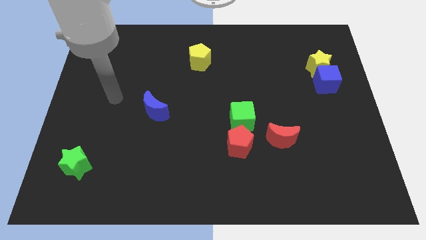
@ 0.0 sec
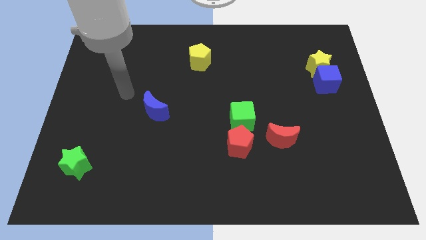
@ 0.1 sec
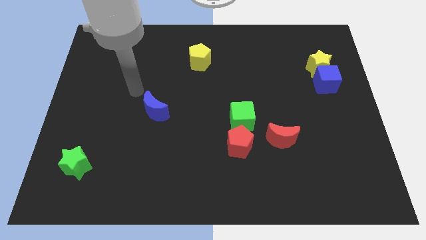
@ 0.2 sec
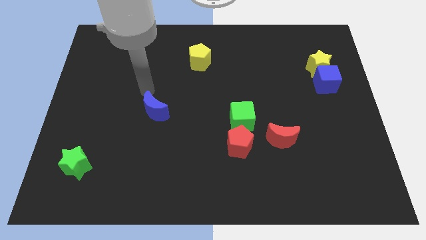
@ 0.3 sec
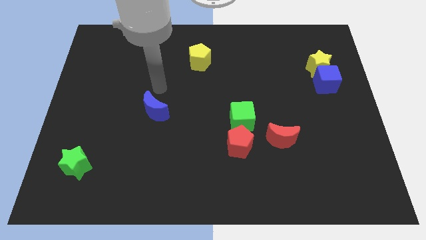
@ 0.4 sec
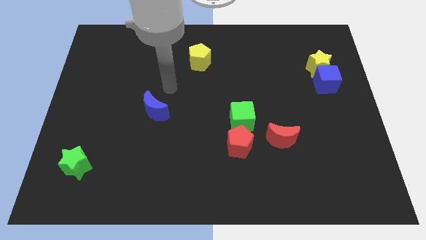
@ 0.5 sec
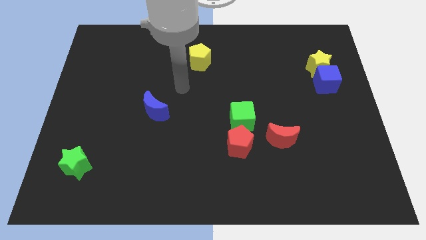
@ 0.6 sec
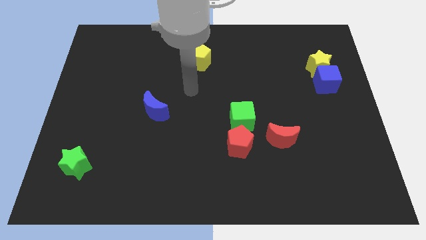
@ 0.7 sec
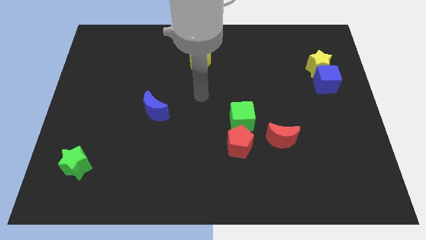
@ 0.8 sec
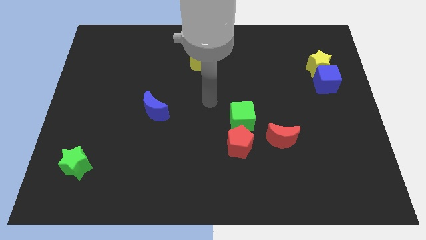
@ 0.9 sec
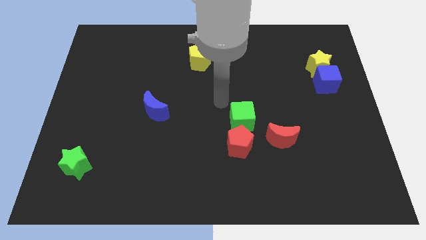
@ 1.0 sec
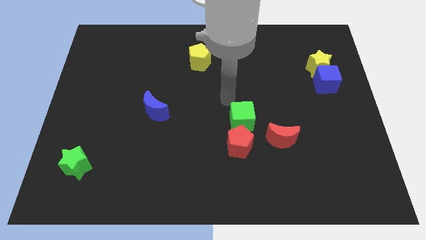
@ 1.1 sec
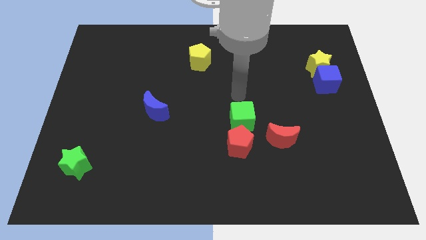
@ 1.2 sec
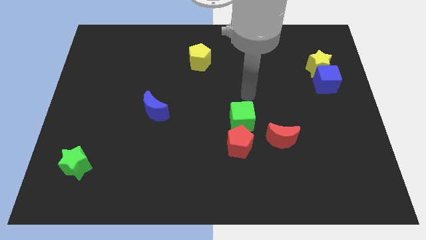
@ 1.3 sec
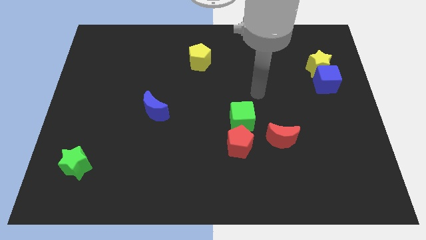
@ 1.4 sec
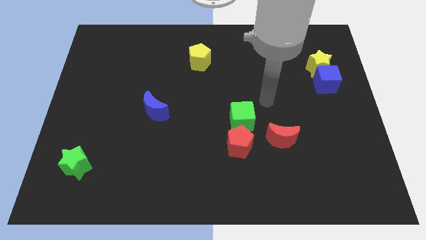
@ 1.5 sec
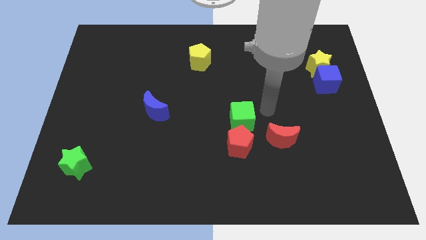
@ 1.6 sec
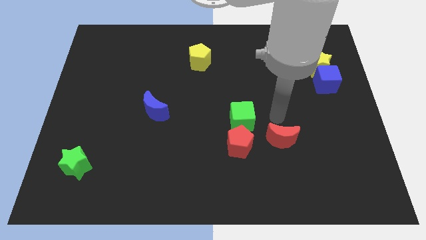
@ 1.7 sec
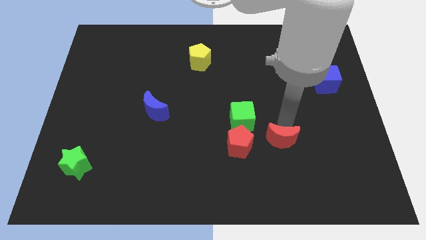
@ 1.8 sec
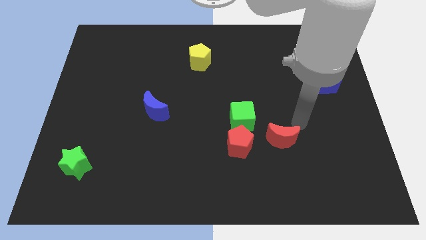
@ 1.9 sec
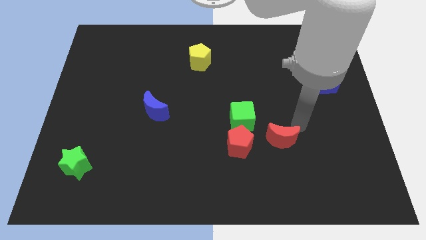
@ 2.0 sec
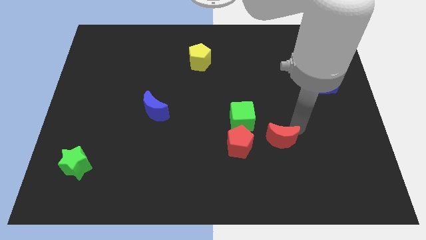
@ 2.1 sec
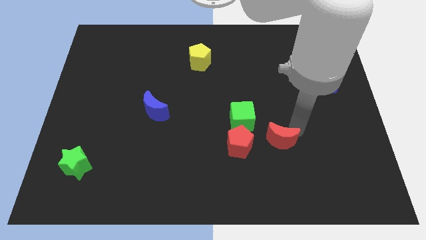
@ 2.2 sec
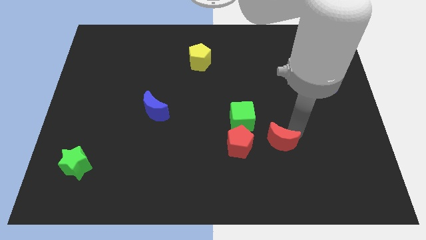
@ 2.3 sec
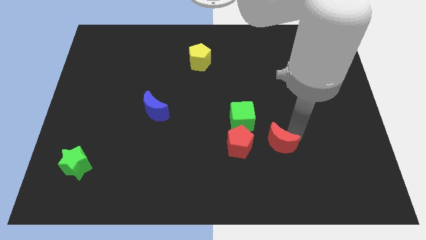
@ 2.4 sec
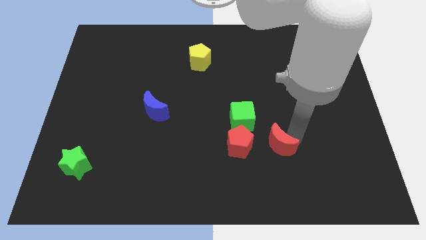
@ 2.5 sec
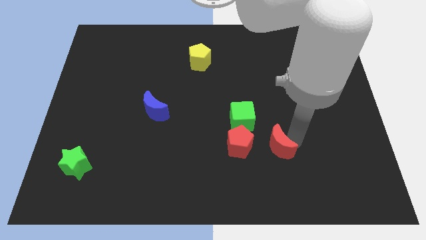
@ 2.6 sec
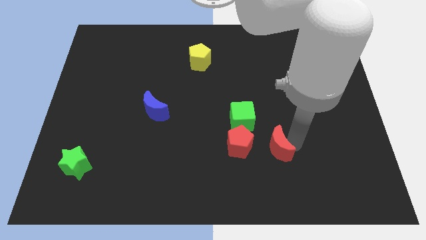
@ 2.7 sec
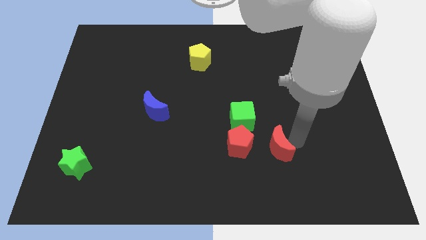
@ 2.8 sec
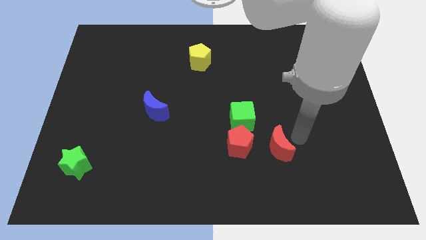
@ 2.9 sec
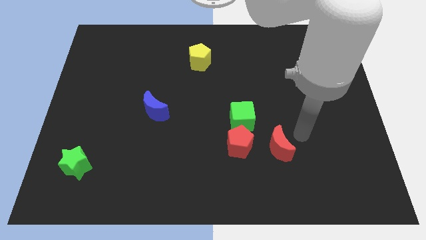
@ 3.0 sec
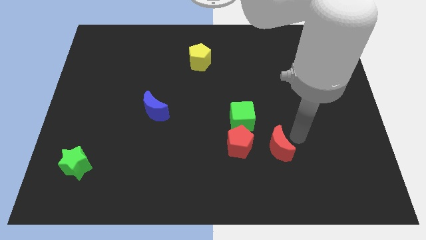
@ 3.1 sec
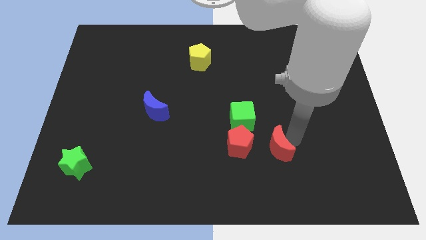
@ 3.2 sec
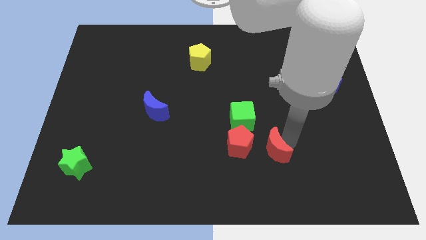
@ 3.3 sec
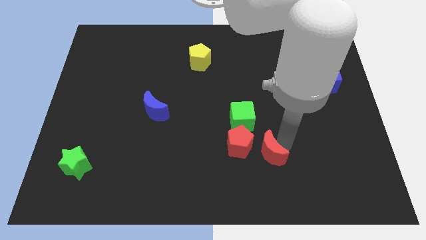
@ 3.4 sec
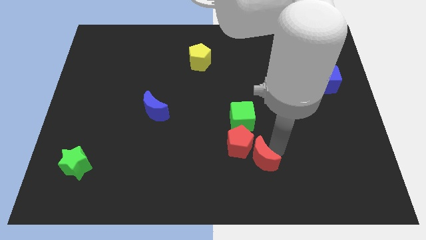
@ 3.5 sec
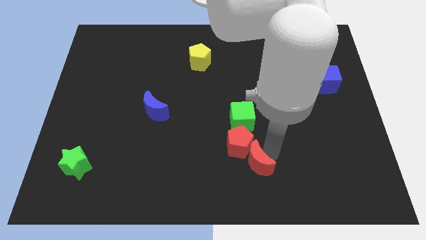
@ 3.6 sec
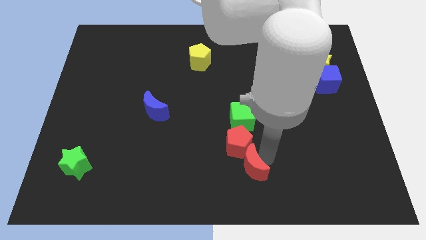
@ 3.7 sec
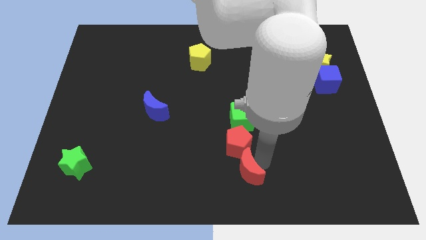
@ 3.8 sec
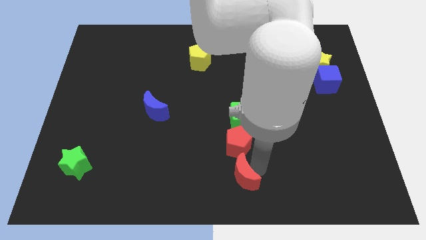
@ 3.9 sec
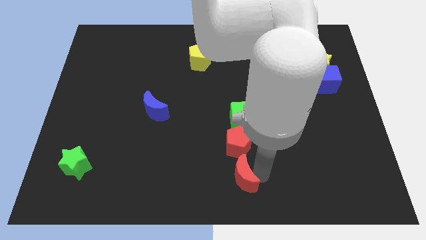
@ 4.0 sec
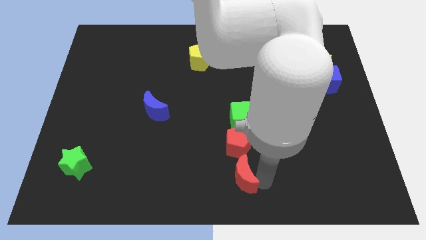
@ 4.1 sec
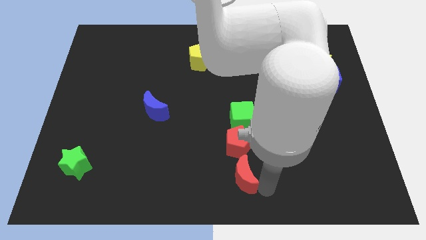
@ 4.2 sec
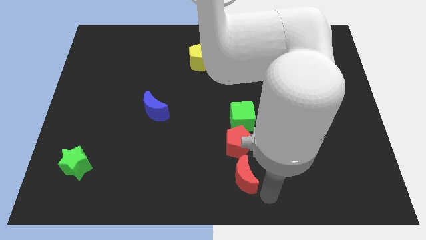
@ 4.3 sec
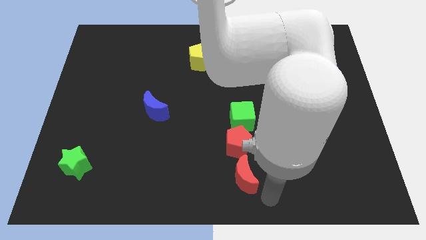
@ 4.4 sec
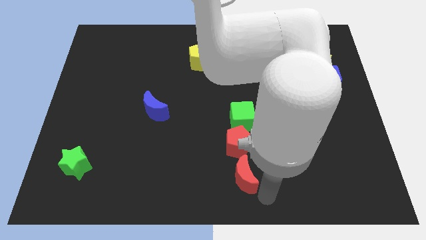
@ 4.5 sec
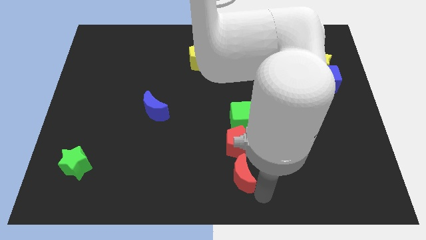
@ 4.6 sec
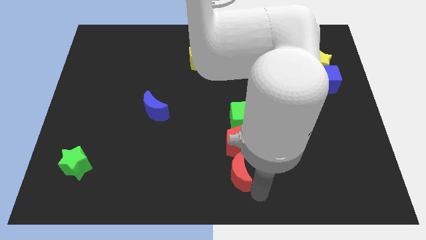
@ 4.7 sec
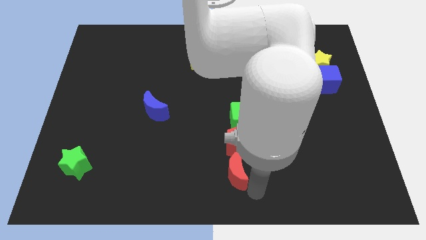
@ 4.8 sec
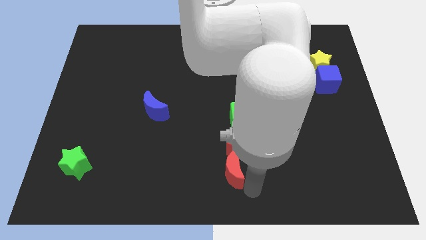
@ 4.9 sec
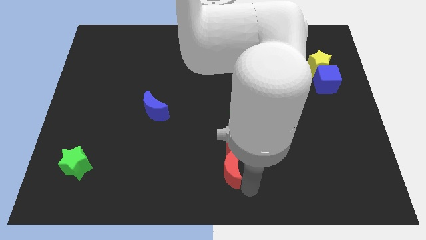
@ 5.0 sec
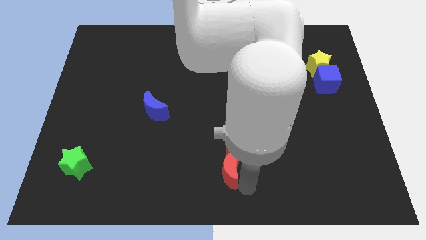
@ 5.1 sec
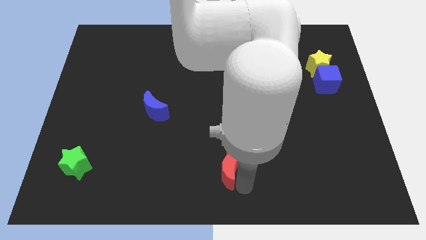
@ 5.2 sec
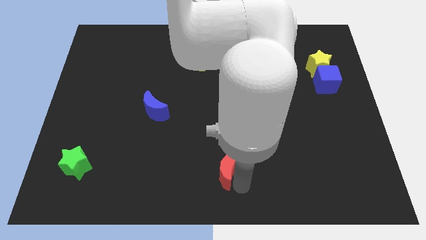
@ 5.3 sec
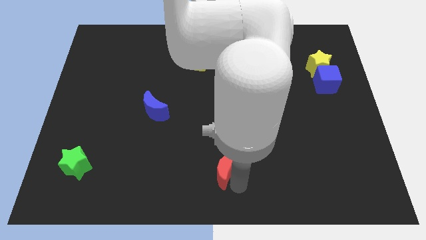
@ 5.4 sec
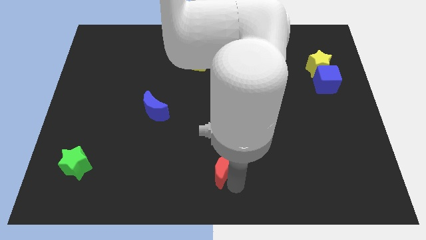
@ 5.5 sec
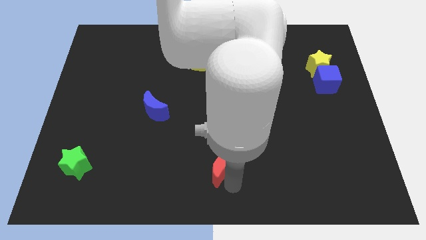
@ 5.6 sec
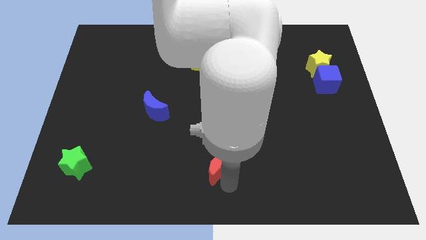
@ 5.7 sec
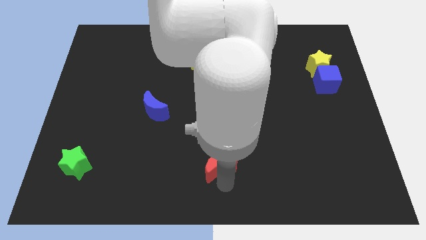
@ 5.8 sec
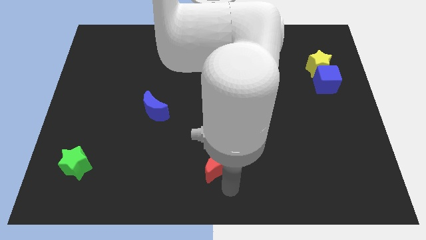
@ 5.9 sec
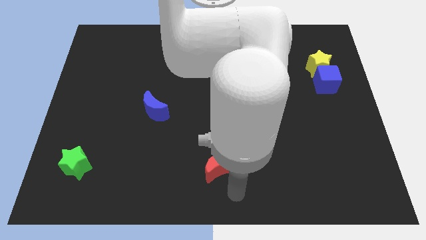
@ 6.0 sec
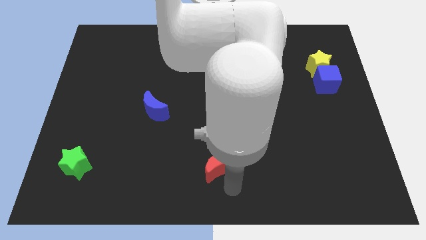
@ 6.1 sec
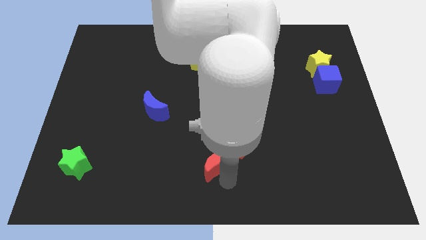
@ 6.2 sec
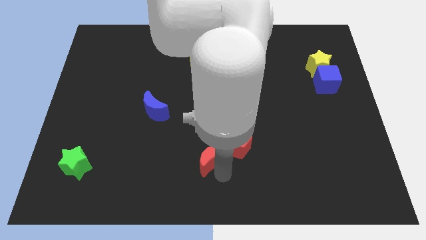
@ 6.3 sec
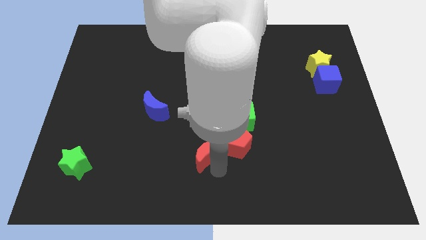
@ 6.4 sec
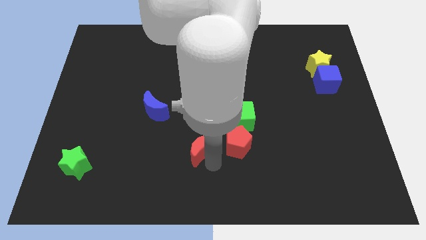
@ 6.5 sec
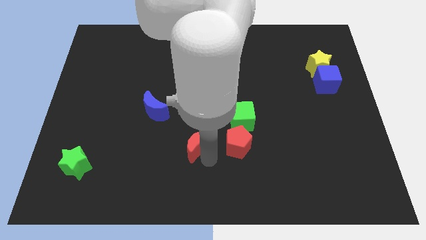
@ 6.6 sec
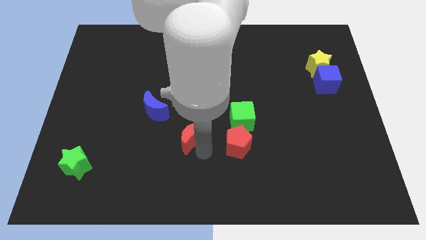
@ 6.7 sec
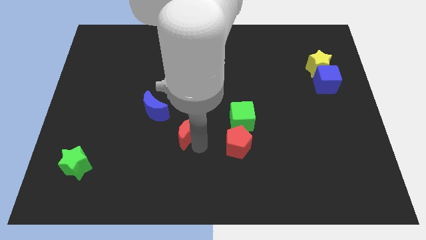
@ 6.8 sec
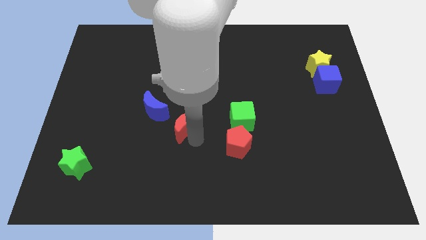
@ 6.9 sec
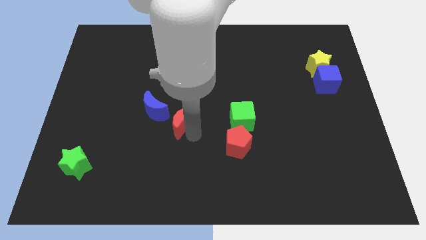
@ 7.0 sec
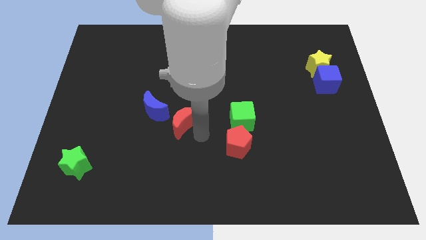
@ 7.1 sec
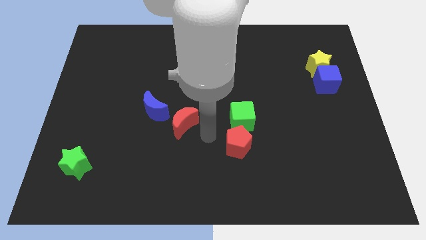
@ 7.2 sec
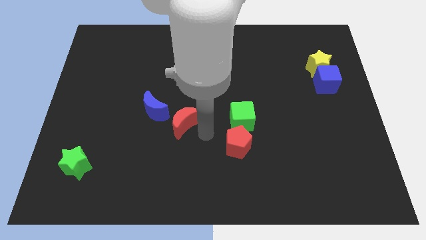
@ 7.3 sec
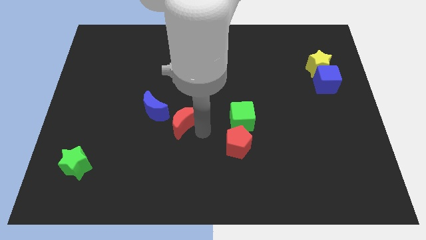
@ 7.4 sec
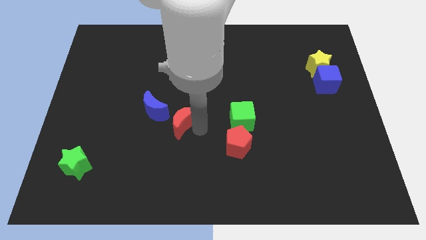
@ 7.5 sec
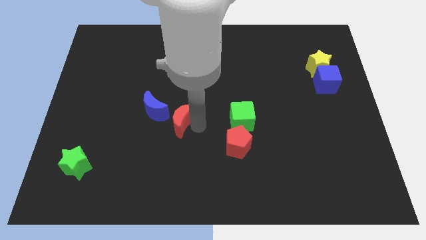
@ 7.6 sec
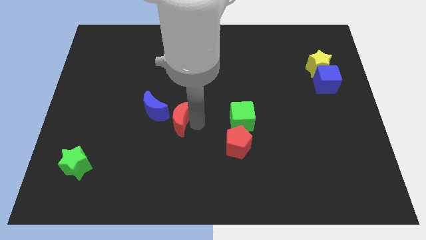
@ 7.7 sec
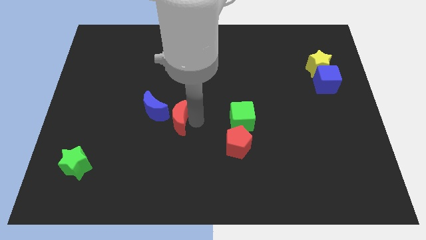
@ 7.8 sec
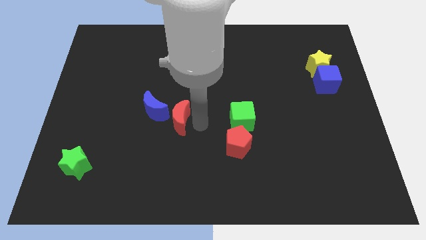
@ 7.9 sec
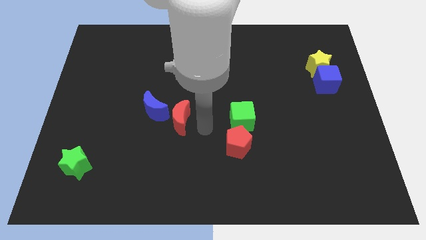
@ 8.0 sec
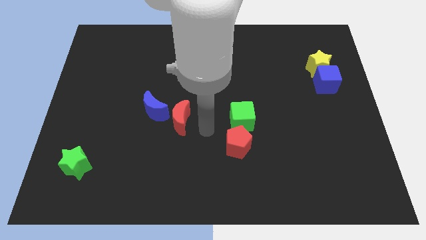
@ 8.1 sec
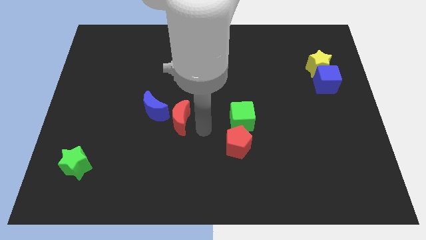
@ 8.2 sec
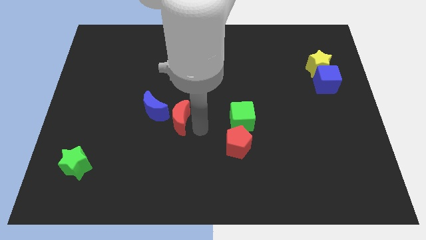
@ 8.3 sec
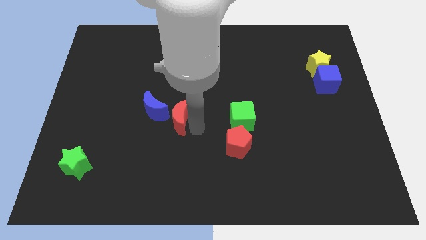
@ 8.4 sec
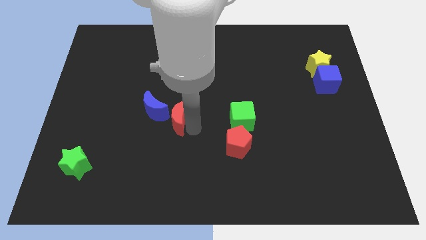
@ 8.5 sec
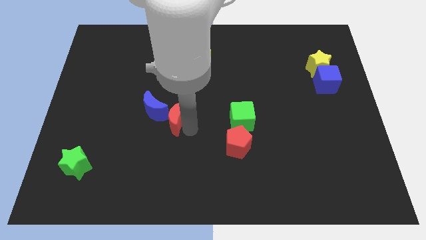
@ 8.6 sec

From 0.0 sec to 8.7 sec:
slide the red moon next to the blue moon
